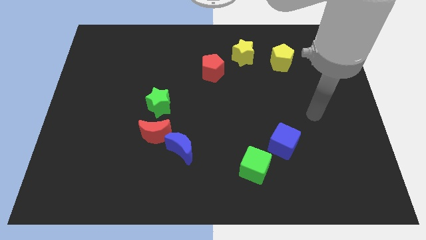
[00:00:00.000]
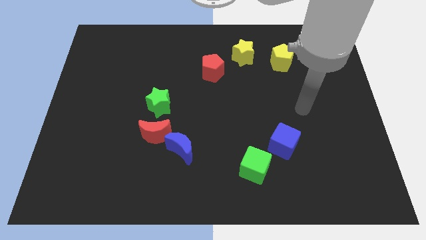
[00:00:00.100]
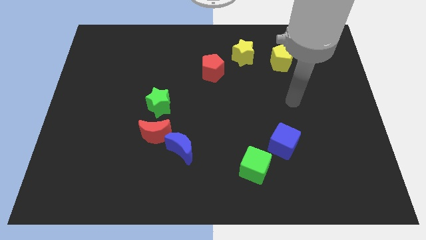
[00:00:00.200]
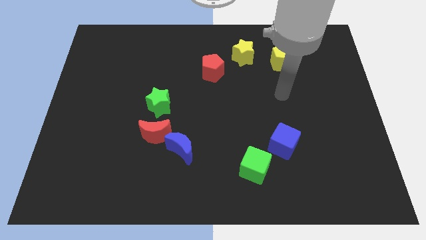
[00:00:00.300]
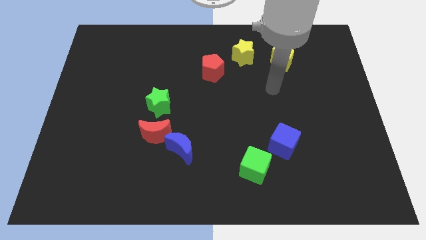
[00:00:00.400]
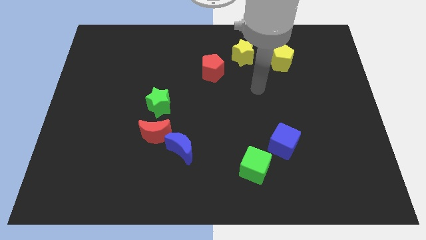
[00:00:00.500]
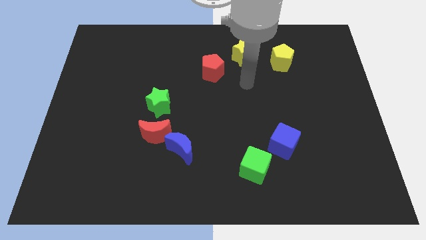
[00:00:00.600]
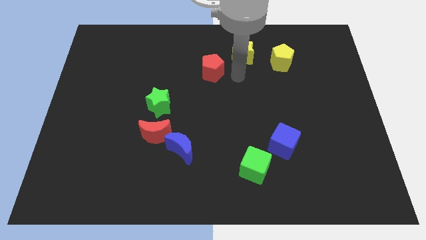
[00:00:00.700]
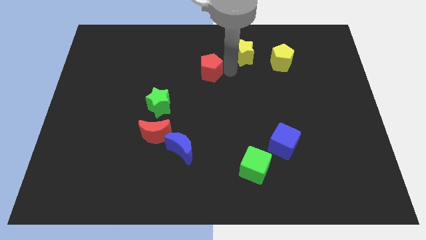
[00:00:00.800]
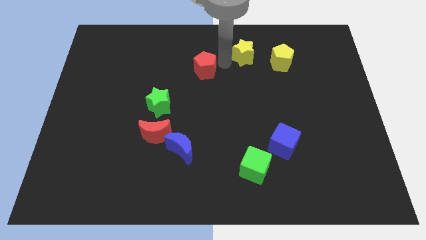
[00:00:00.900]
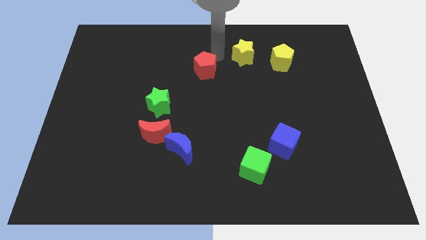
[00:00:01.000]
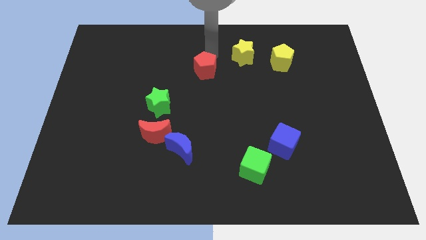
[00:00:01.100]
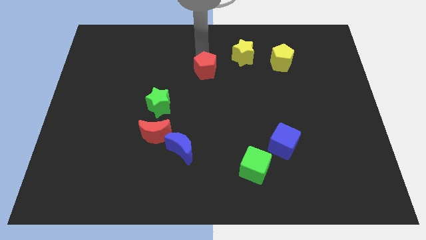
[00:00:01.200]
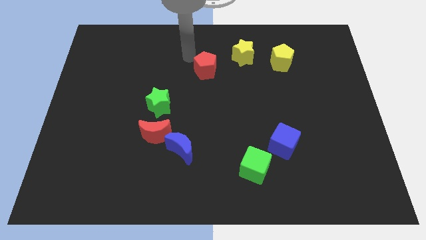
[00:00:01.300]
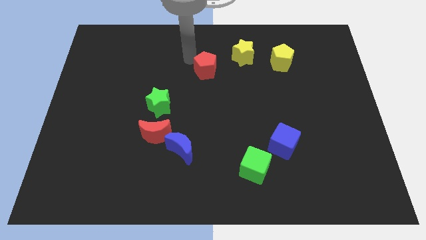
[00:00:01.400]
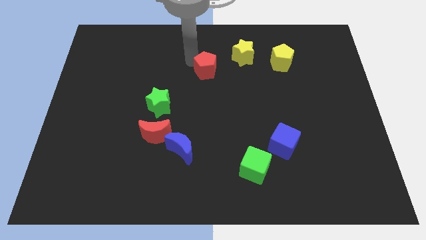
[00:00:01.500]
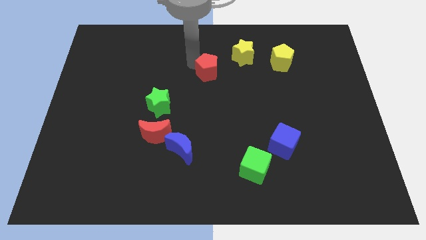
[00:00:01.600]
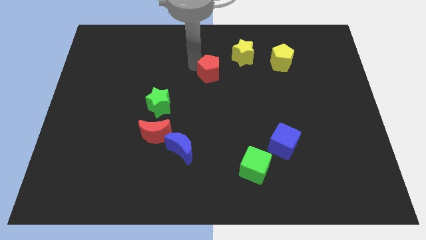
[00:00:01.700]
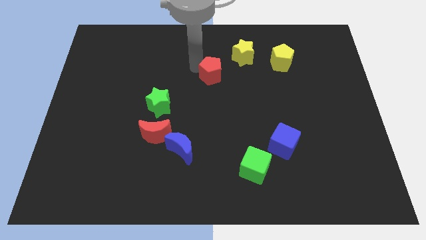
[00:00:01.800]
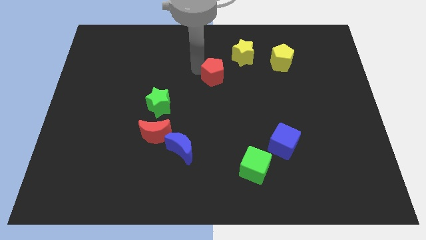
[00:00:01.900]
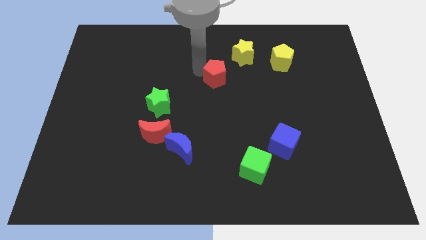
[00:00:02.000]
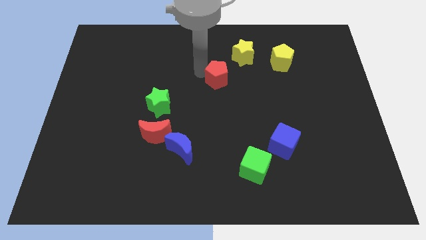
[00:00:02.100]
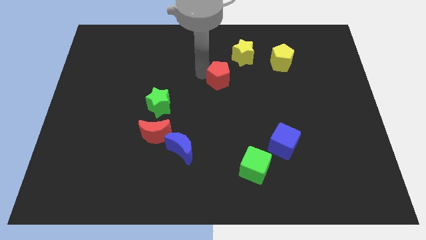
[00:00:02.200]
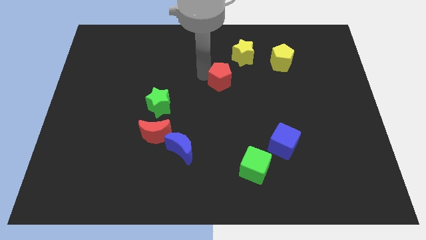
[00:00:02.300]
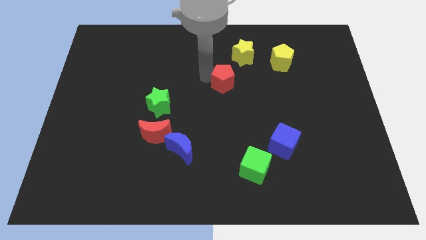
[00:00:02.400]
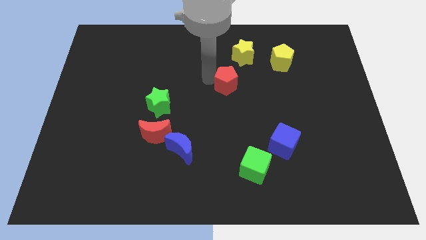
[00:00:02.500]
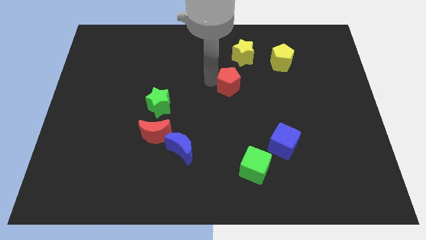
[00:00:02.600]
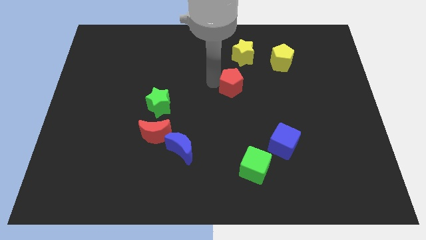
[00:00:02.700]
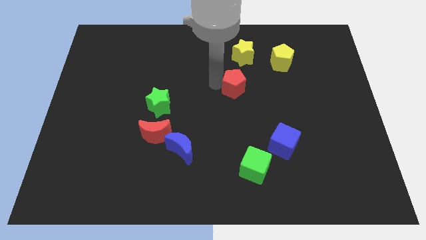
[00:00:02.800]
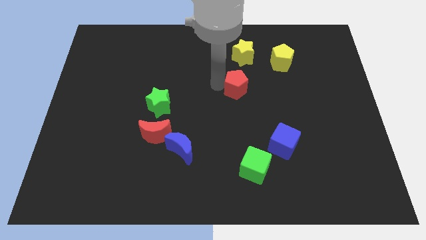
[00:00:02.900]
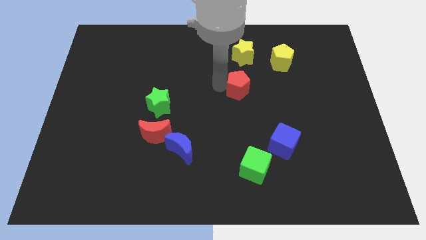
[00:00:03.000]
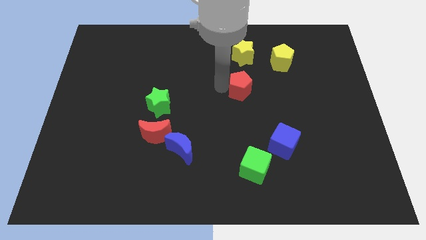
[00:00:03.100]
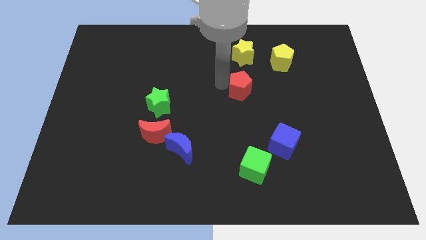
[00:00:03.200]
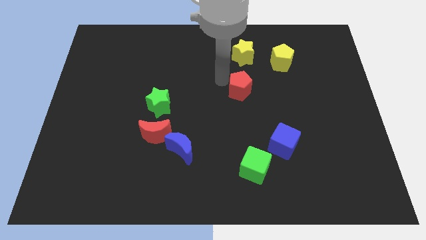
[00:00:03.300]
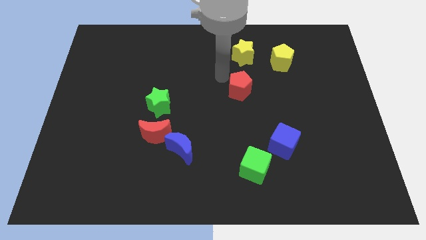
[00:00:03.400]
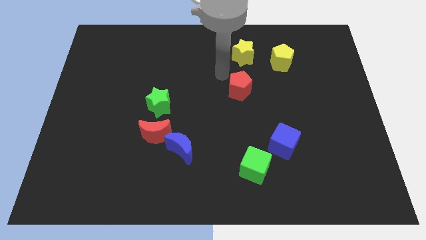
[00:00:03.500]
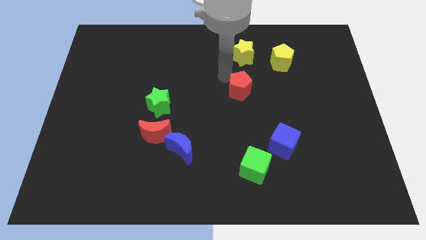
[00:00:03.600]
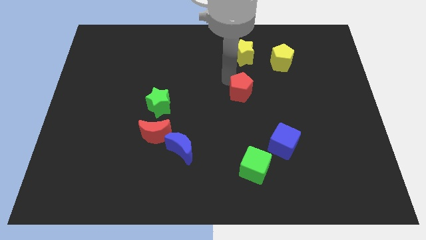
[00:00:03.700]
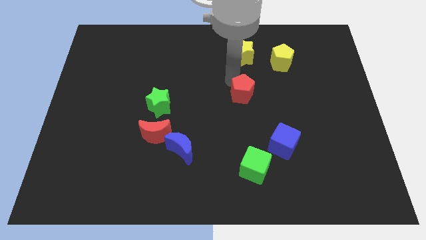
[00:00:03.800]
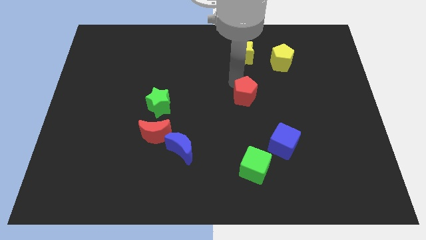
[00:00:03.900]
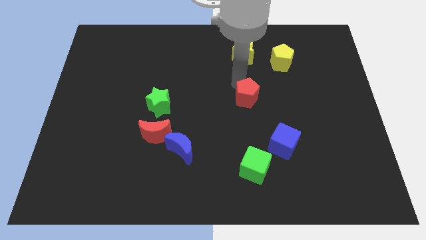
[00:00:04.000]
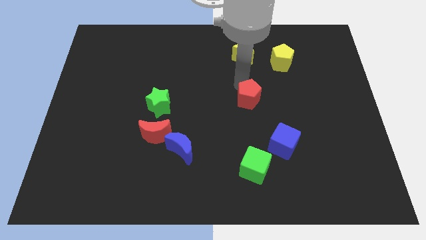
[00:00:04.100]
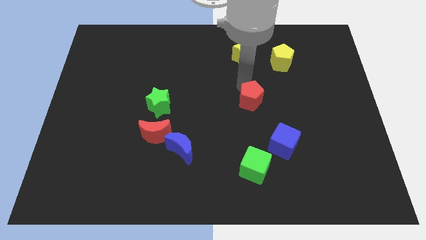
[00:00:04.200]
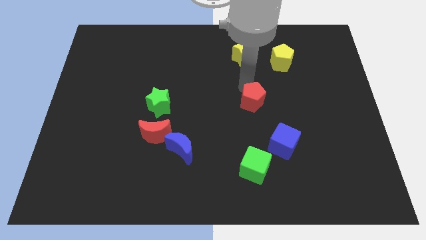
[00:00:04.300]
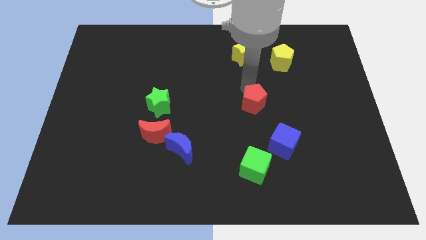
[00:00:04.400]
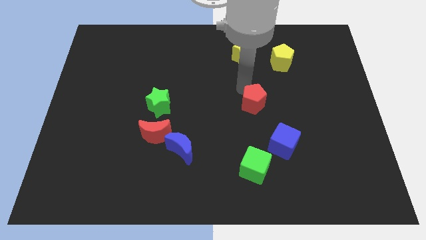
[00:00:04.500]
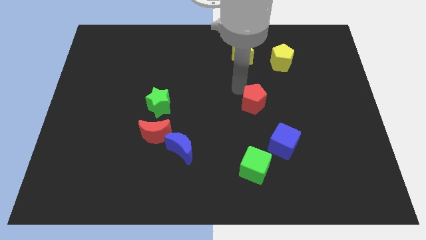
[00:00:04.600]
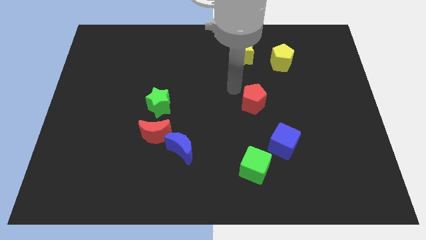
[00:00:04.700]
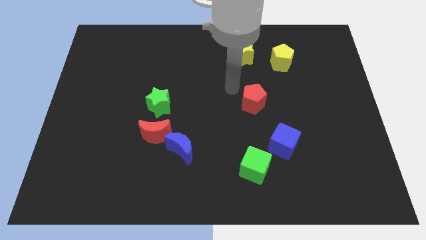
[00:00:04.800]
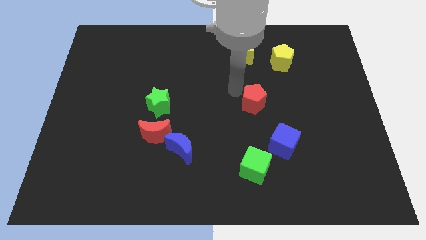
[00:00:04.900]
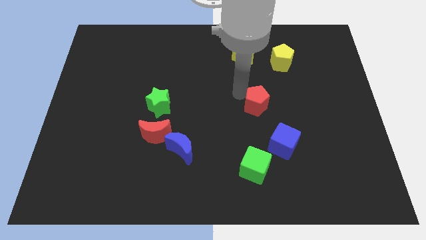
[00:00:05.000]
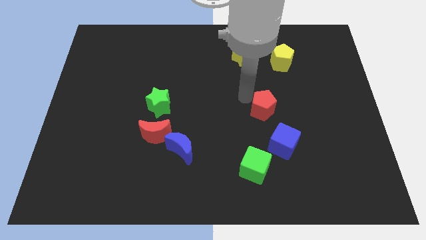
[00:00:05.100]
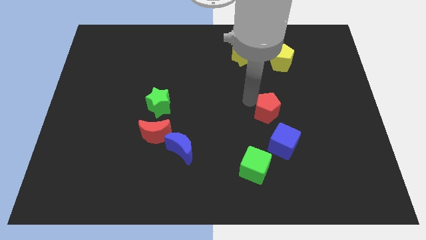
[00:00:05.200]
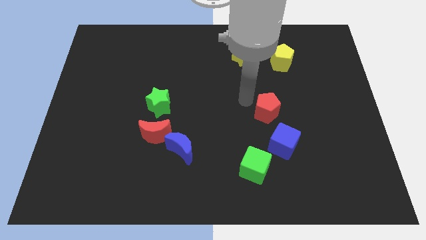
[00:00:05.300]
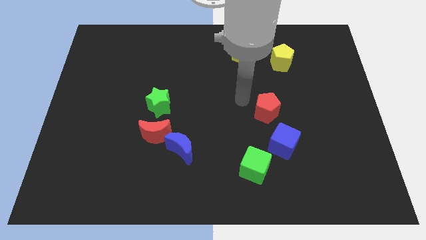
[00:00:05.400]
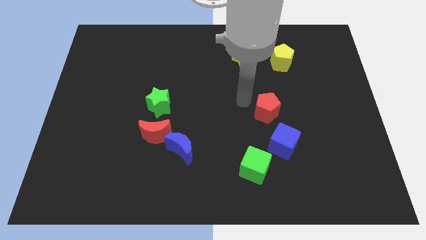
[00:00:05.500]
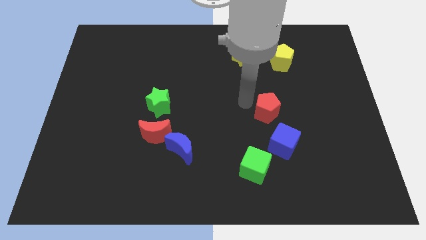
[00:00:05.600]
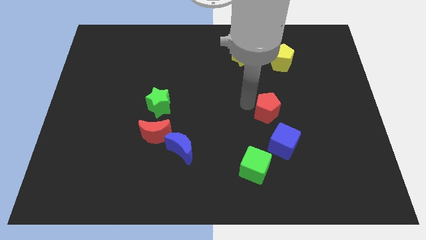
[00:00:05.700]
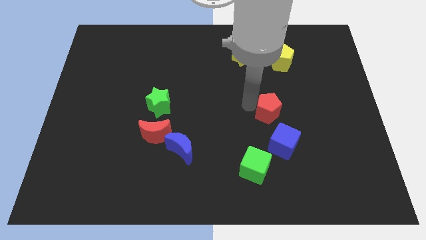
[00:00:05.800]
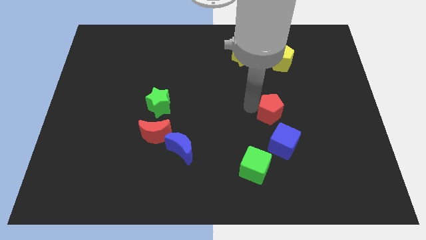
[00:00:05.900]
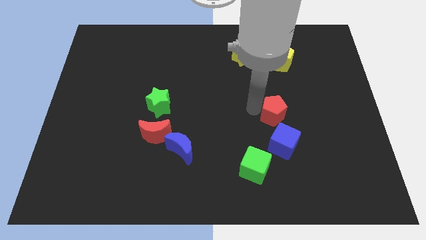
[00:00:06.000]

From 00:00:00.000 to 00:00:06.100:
move the red pentagon diagonally downwards and right

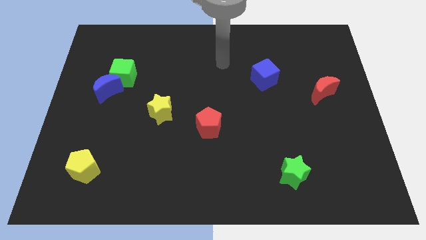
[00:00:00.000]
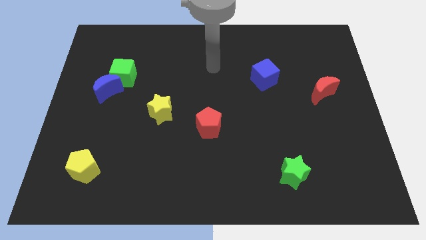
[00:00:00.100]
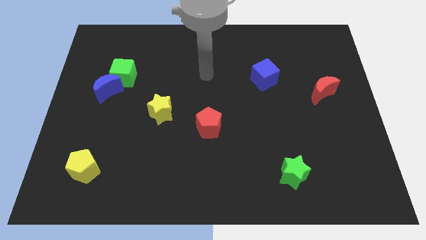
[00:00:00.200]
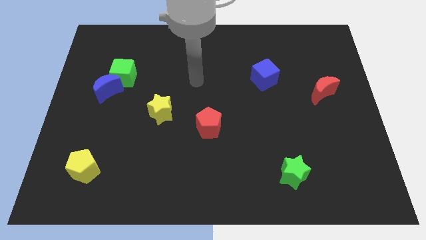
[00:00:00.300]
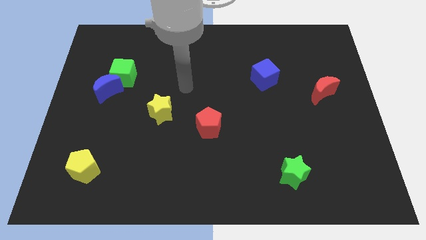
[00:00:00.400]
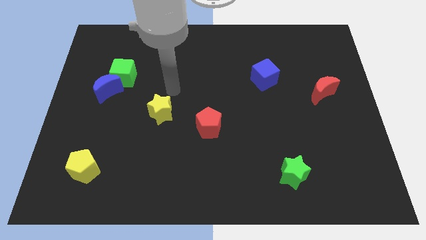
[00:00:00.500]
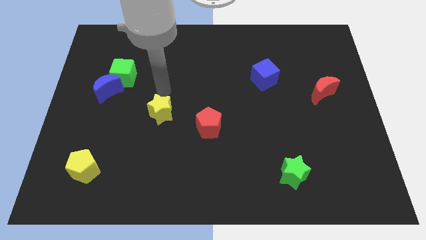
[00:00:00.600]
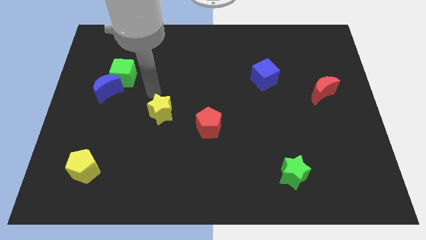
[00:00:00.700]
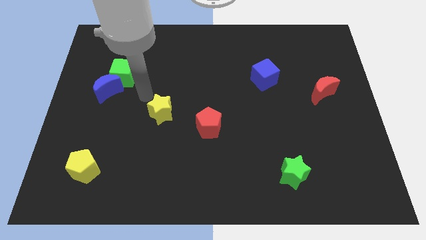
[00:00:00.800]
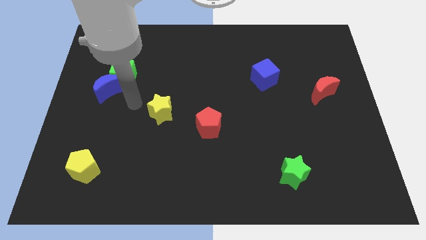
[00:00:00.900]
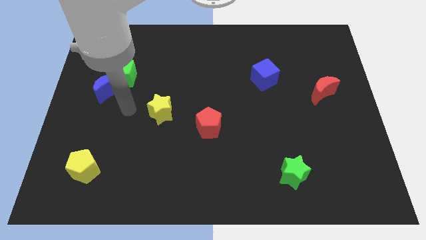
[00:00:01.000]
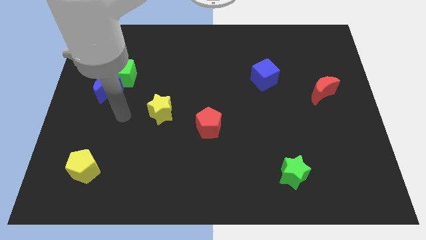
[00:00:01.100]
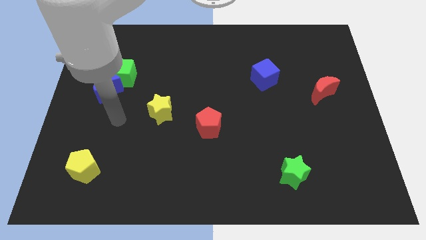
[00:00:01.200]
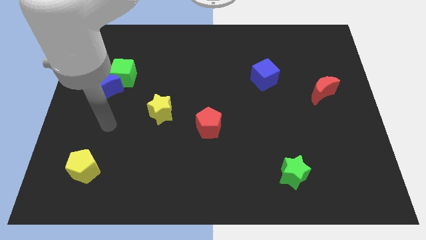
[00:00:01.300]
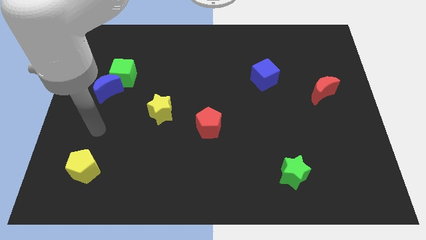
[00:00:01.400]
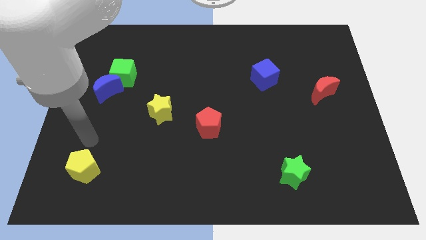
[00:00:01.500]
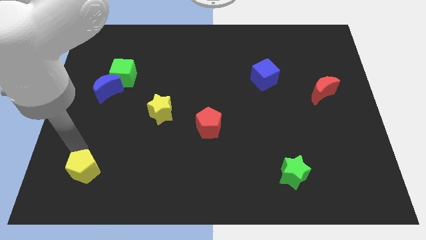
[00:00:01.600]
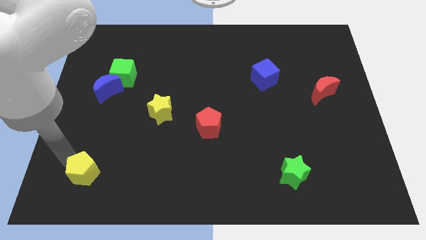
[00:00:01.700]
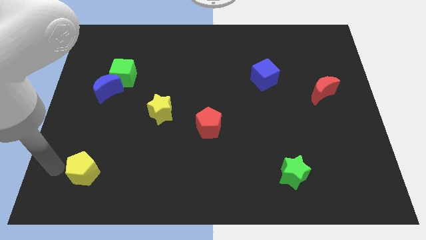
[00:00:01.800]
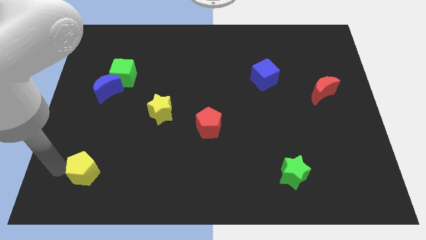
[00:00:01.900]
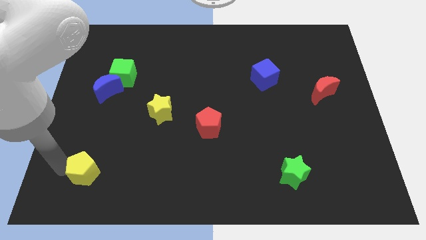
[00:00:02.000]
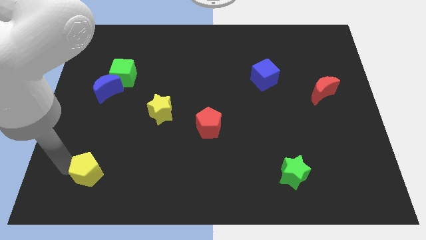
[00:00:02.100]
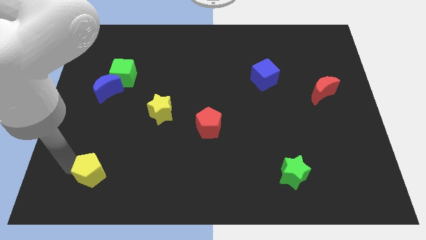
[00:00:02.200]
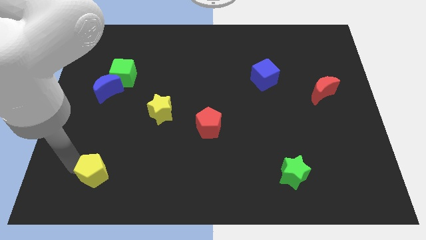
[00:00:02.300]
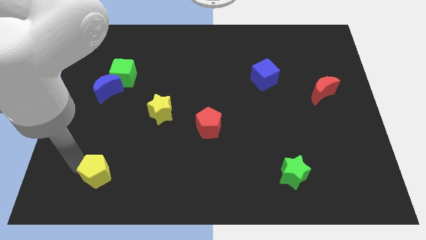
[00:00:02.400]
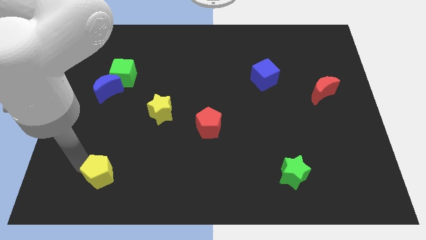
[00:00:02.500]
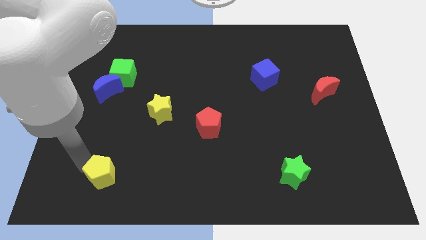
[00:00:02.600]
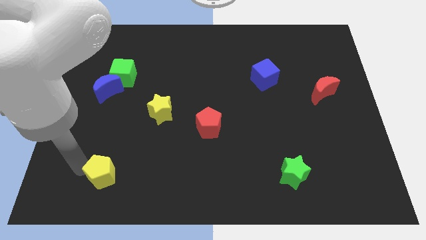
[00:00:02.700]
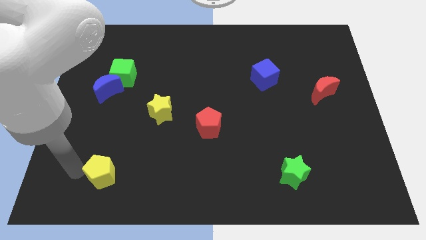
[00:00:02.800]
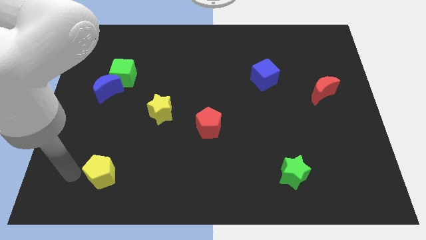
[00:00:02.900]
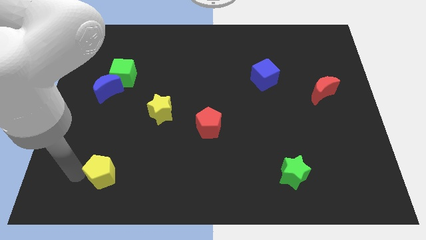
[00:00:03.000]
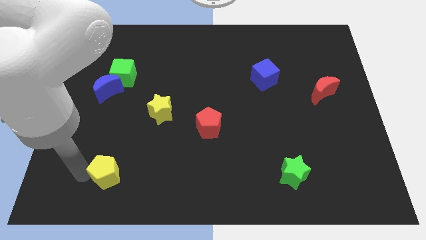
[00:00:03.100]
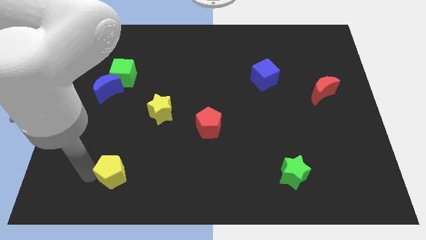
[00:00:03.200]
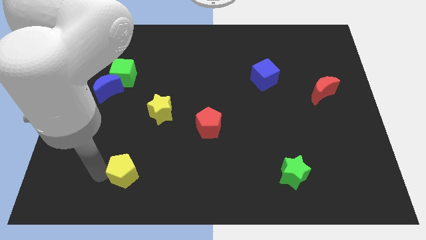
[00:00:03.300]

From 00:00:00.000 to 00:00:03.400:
push the yellow pentagon to the right slightly
